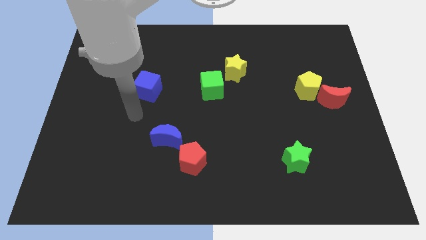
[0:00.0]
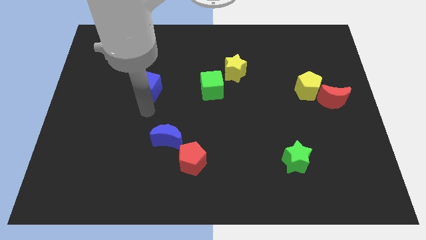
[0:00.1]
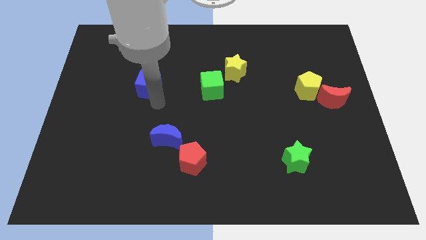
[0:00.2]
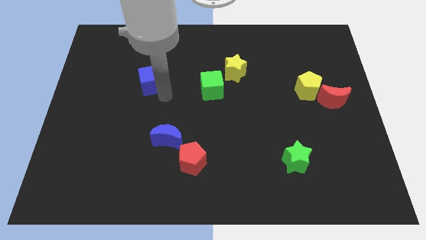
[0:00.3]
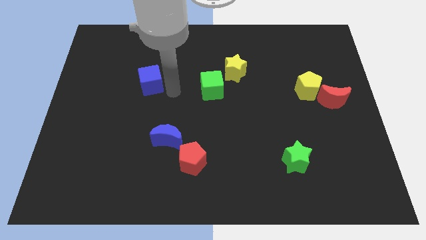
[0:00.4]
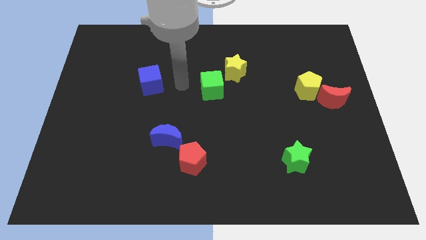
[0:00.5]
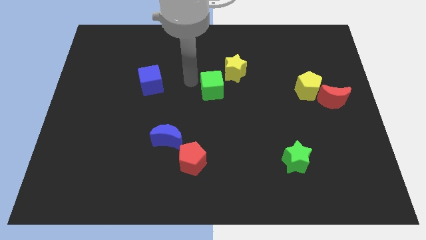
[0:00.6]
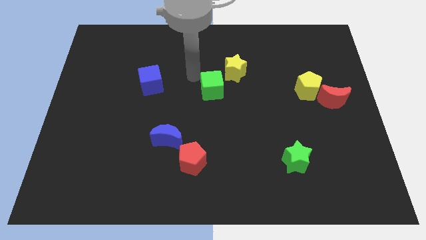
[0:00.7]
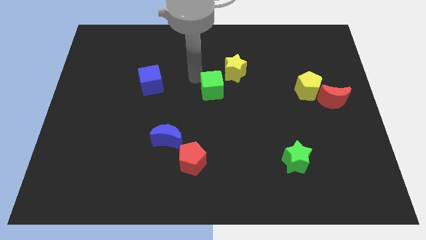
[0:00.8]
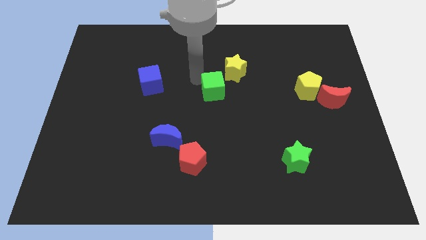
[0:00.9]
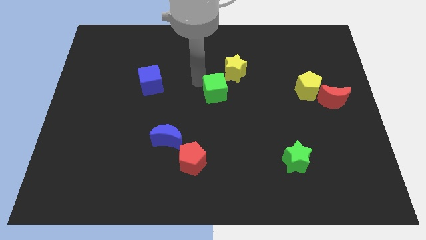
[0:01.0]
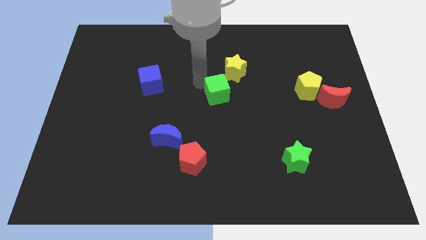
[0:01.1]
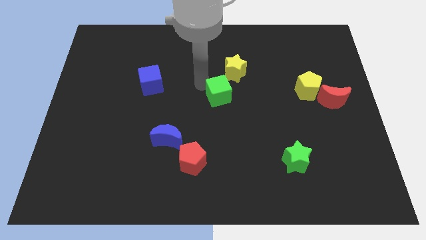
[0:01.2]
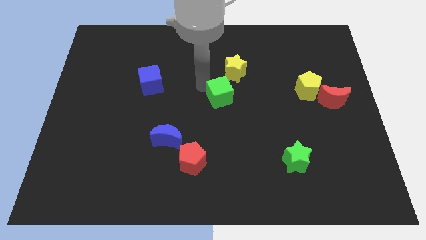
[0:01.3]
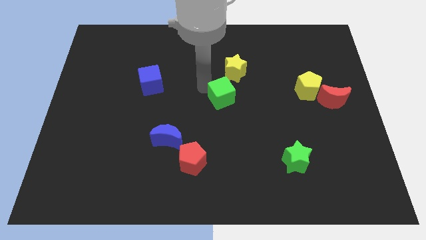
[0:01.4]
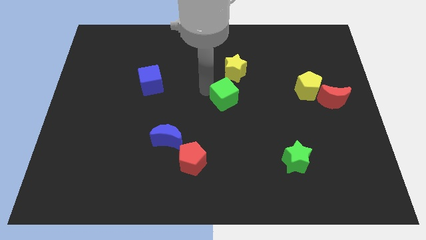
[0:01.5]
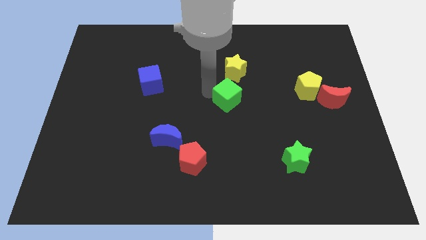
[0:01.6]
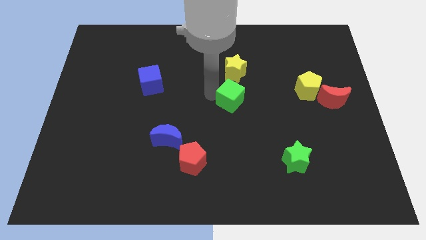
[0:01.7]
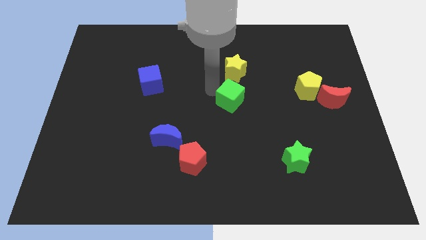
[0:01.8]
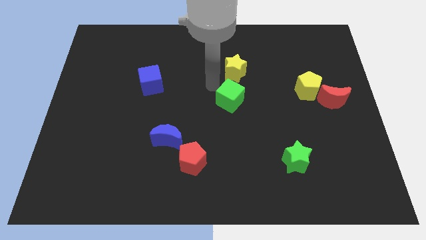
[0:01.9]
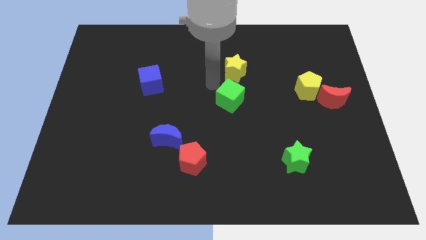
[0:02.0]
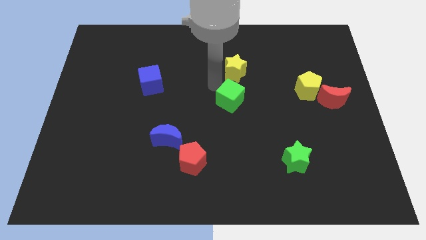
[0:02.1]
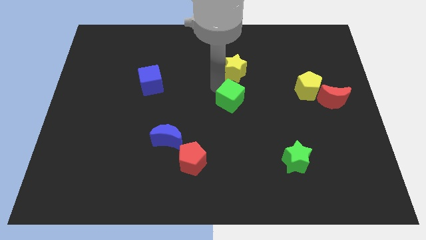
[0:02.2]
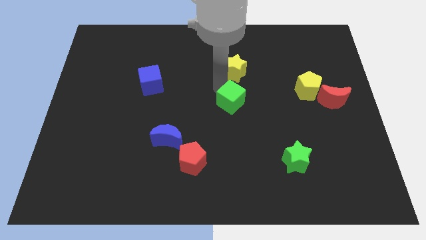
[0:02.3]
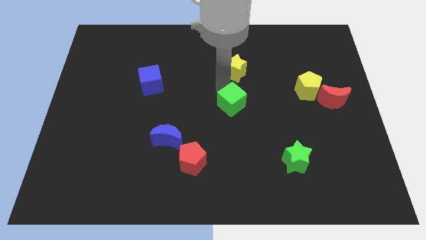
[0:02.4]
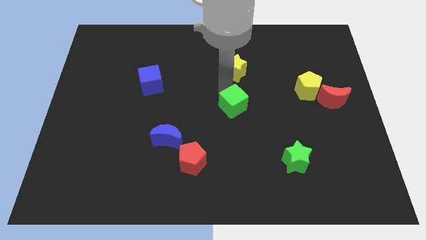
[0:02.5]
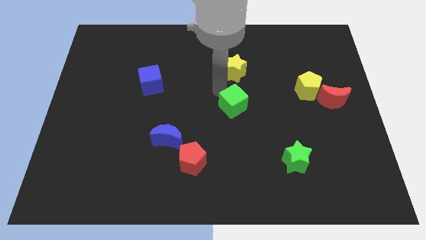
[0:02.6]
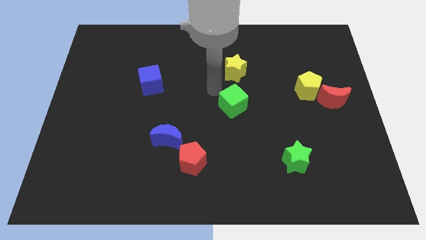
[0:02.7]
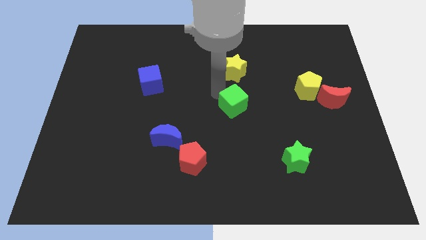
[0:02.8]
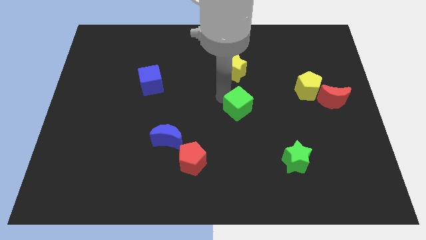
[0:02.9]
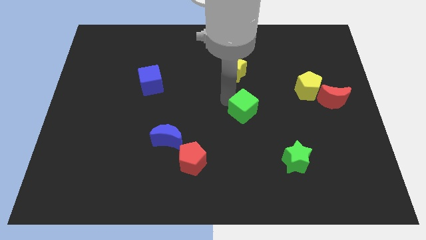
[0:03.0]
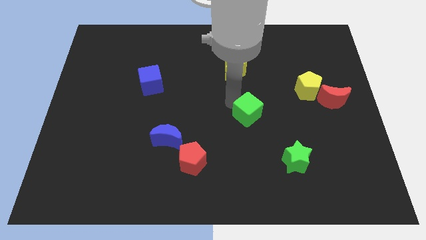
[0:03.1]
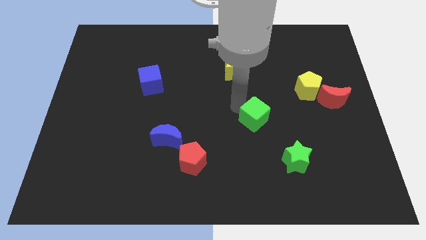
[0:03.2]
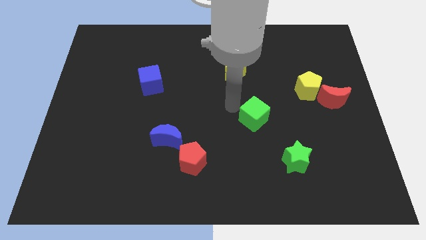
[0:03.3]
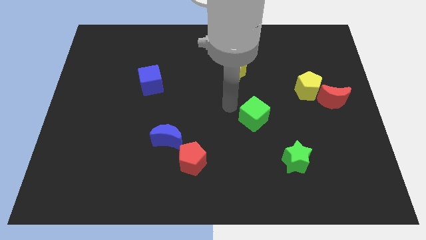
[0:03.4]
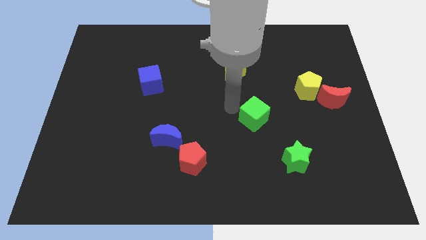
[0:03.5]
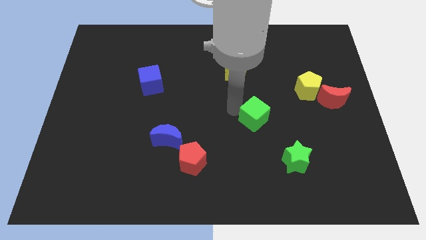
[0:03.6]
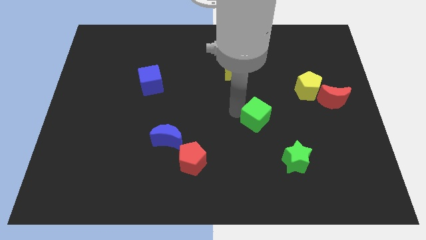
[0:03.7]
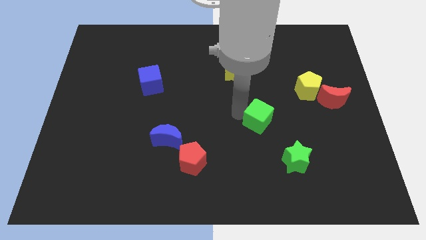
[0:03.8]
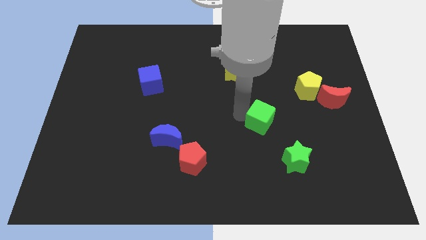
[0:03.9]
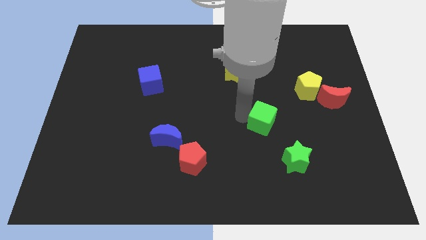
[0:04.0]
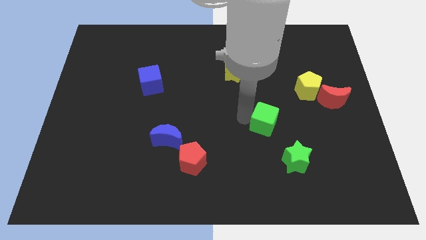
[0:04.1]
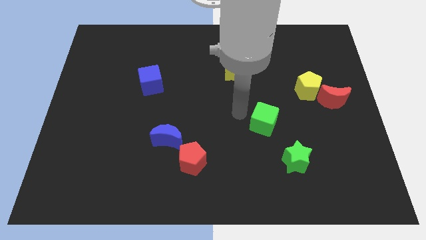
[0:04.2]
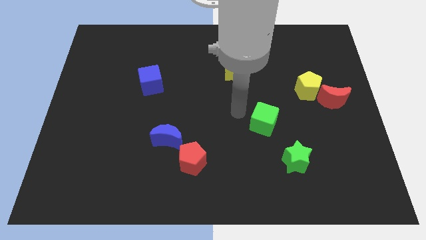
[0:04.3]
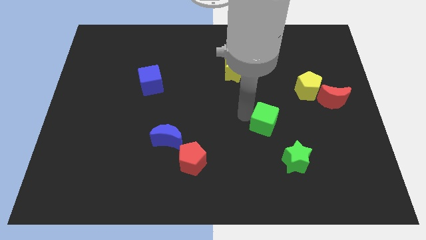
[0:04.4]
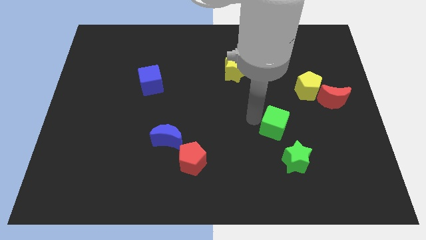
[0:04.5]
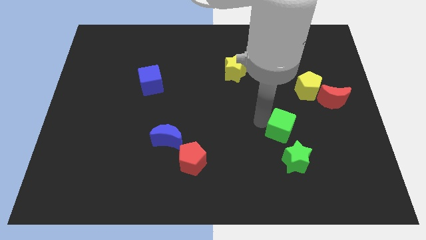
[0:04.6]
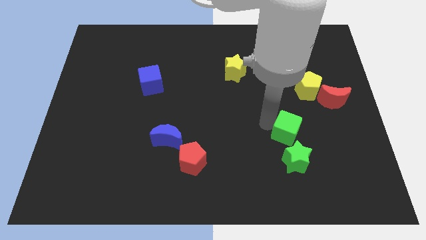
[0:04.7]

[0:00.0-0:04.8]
push the green cube down and then right

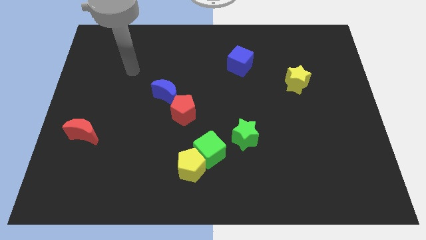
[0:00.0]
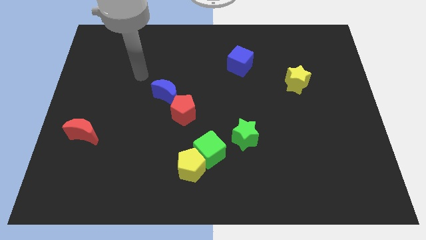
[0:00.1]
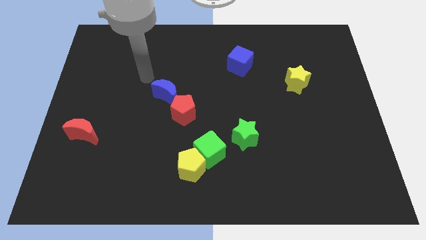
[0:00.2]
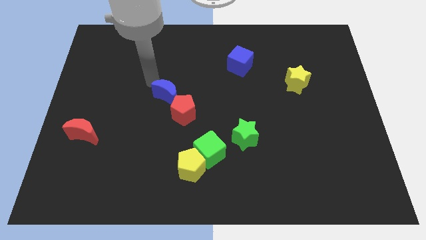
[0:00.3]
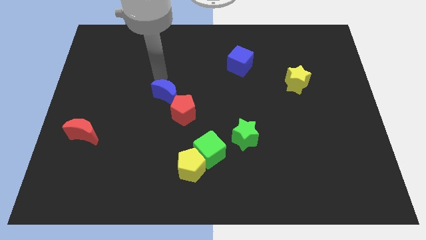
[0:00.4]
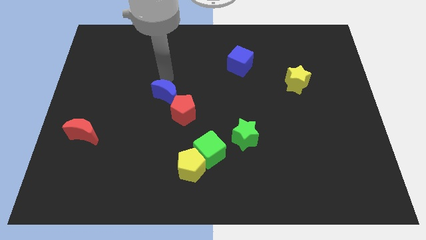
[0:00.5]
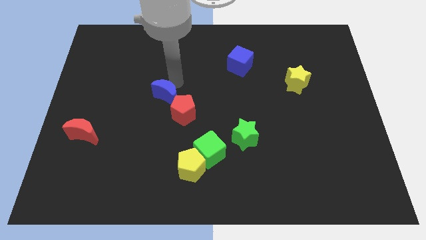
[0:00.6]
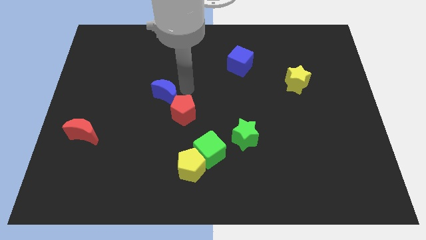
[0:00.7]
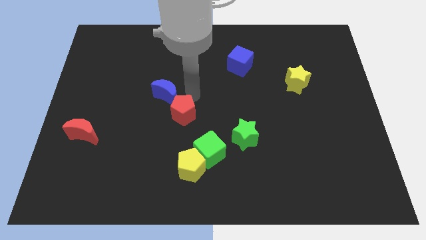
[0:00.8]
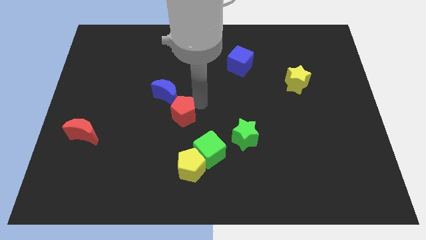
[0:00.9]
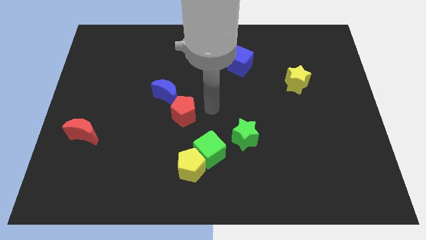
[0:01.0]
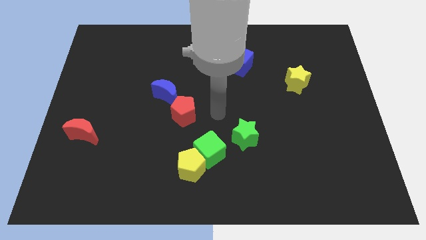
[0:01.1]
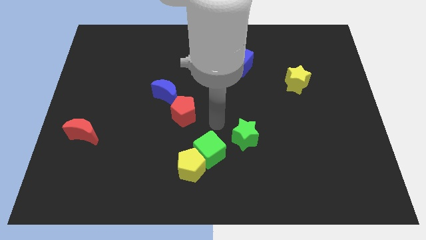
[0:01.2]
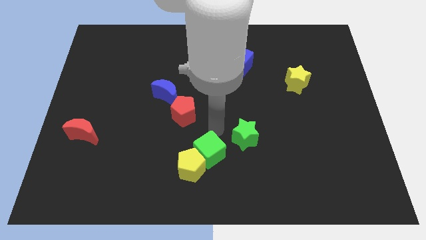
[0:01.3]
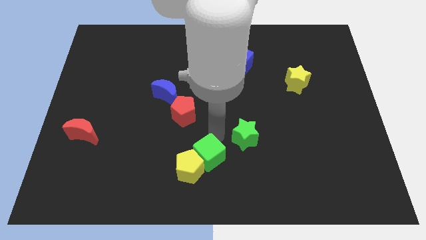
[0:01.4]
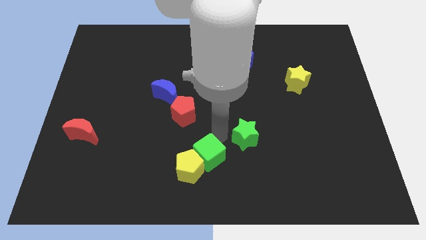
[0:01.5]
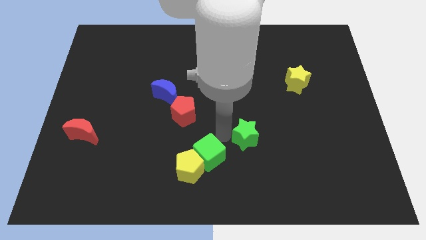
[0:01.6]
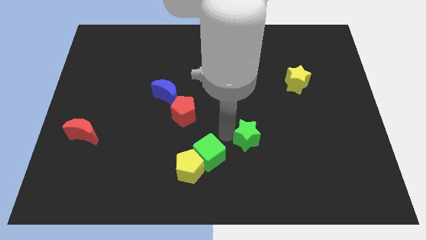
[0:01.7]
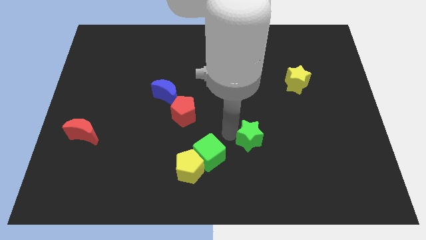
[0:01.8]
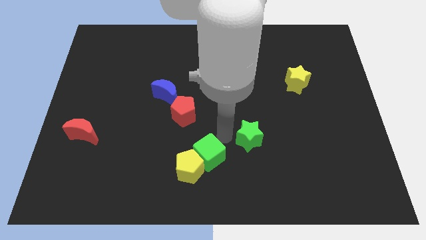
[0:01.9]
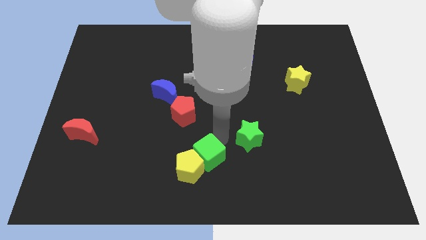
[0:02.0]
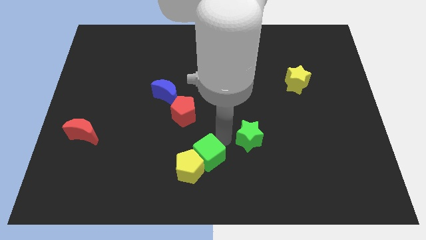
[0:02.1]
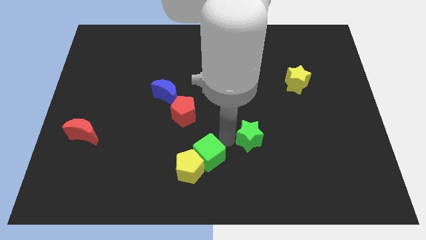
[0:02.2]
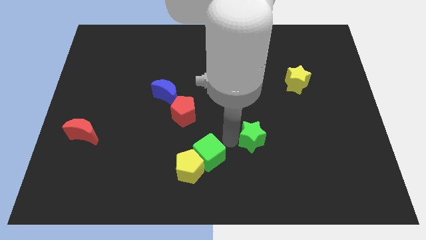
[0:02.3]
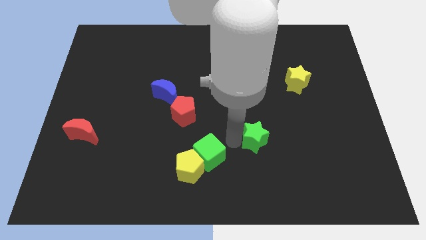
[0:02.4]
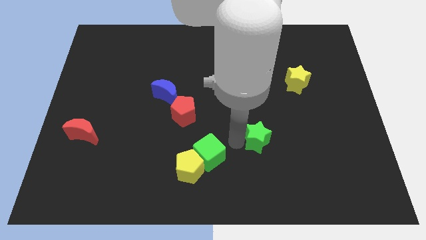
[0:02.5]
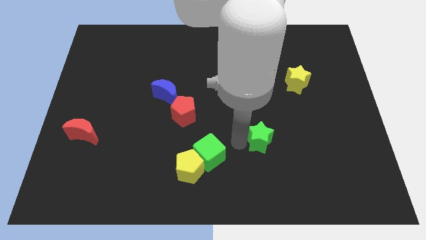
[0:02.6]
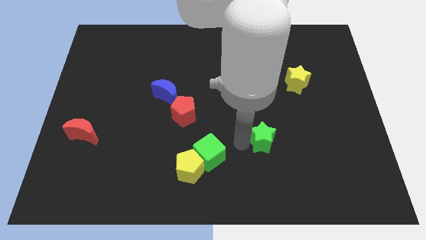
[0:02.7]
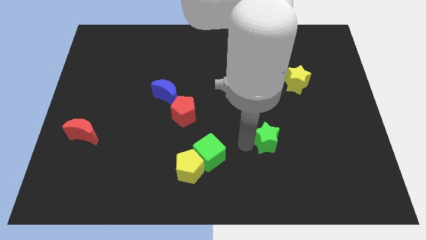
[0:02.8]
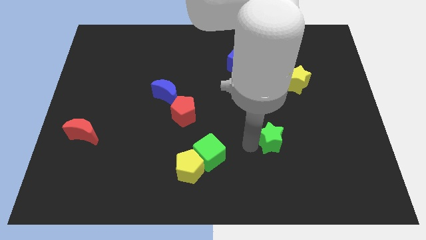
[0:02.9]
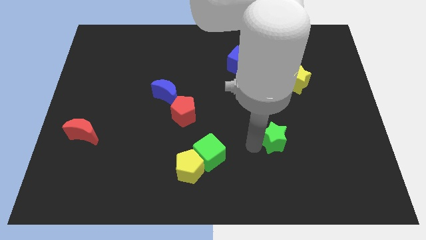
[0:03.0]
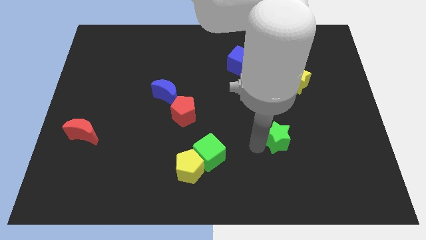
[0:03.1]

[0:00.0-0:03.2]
slightly push the green star right
